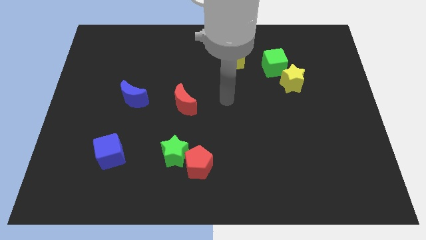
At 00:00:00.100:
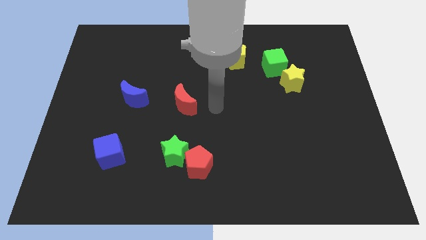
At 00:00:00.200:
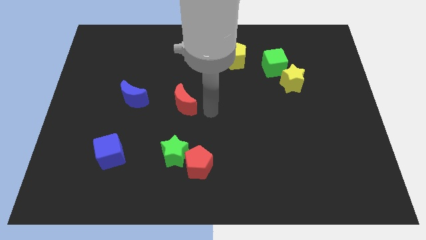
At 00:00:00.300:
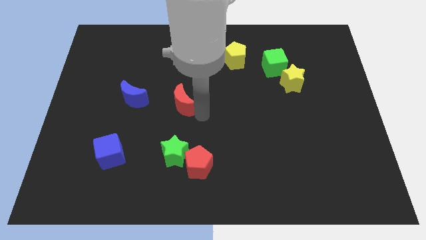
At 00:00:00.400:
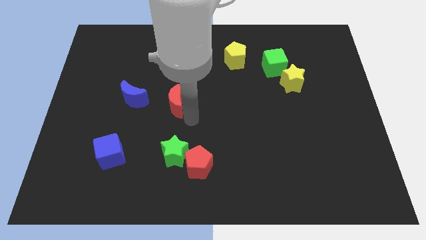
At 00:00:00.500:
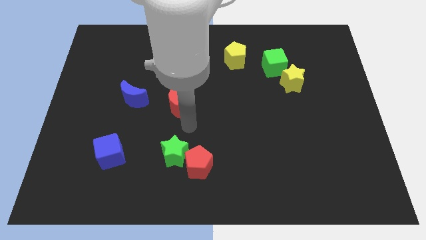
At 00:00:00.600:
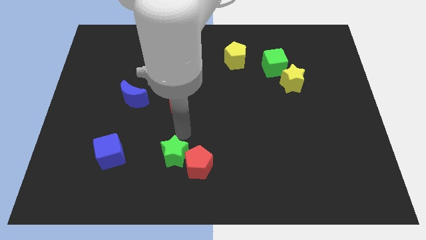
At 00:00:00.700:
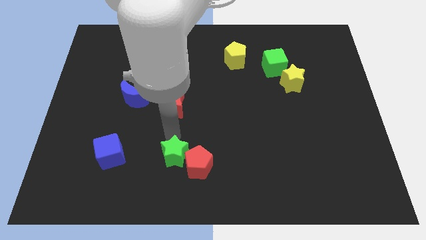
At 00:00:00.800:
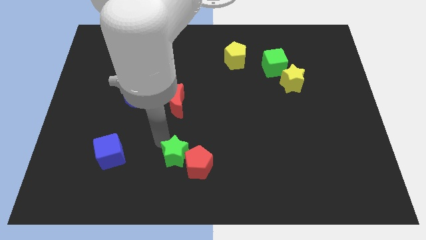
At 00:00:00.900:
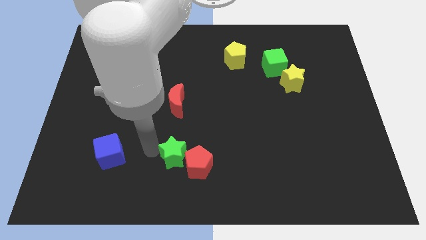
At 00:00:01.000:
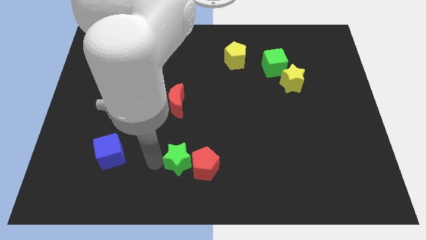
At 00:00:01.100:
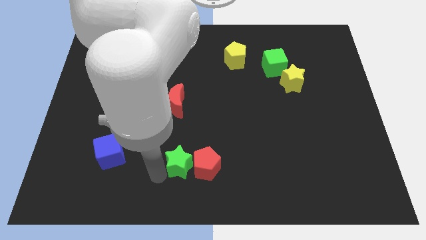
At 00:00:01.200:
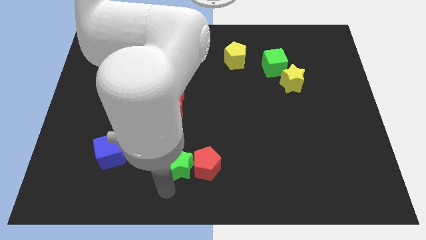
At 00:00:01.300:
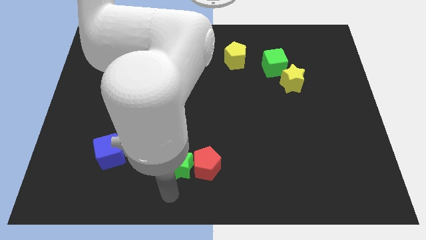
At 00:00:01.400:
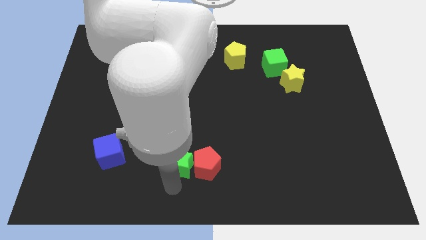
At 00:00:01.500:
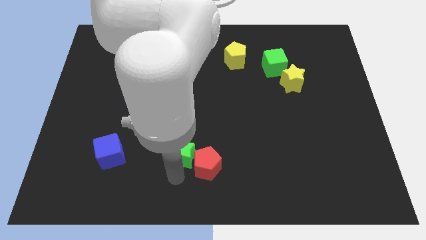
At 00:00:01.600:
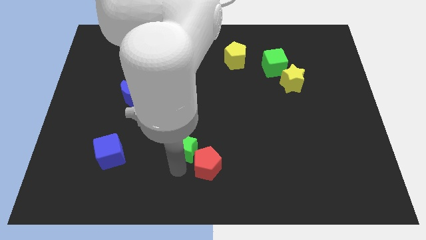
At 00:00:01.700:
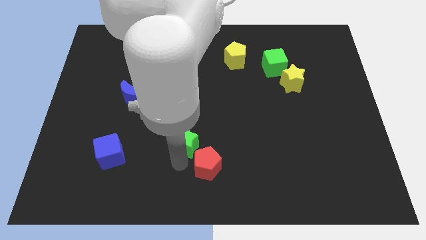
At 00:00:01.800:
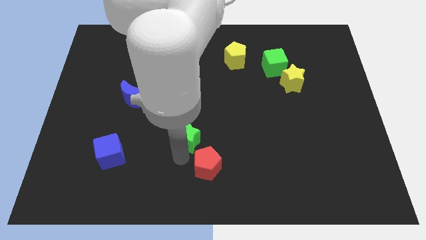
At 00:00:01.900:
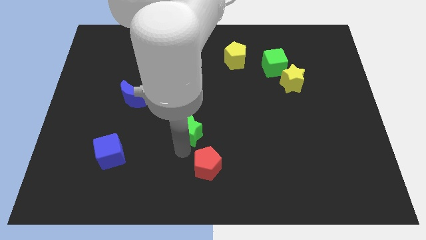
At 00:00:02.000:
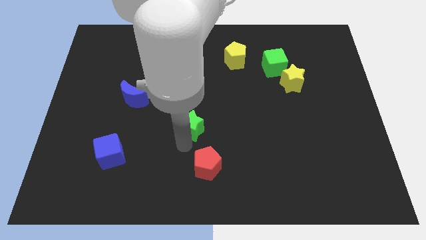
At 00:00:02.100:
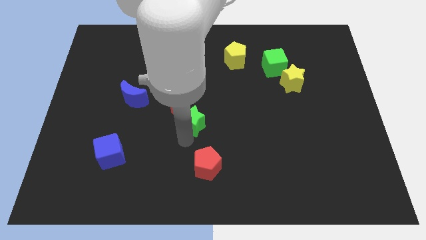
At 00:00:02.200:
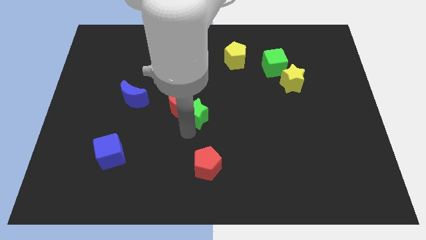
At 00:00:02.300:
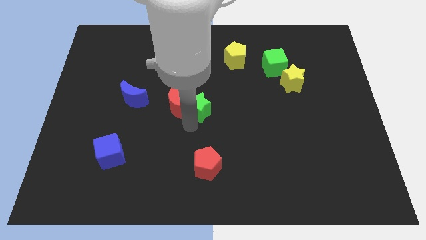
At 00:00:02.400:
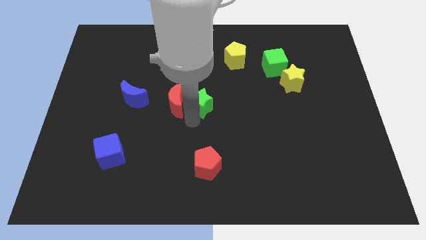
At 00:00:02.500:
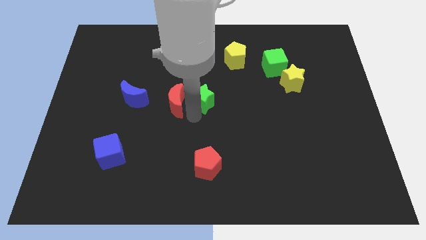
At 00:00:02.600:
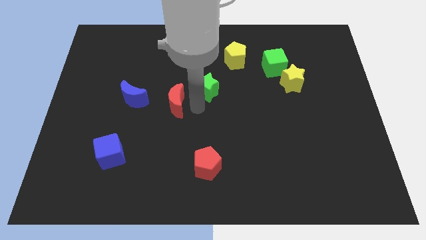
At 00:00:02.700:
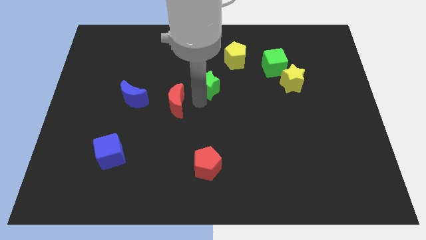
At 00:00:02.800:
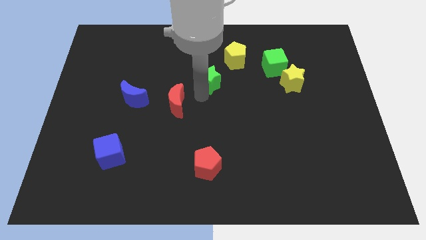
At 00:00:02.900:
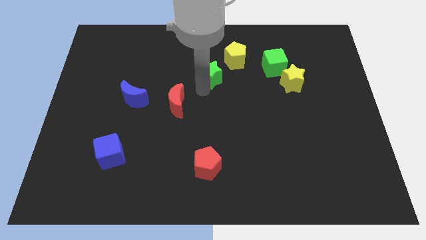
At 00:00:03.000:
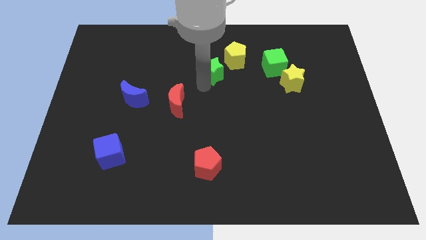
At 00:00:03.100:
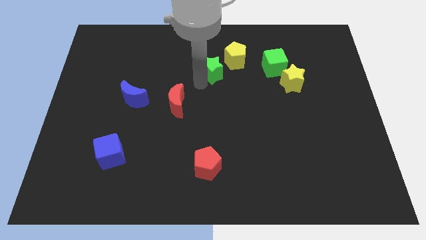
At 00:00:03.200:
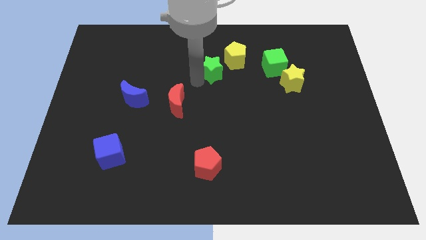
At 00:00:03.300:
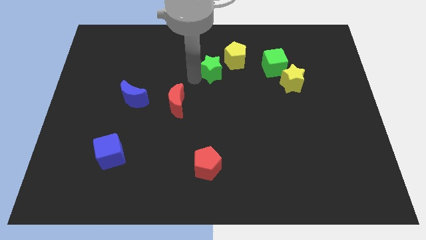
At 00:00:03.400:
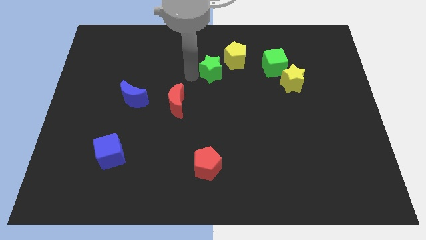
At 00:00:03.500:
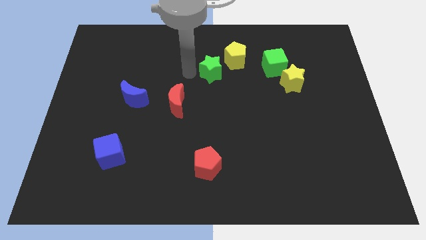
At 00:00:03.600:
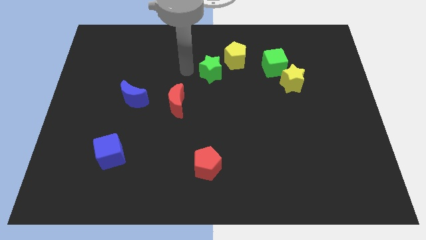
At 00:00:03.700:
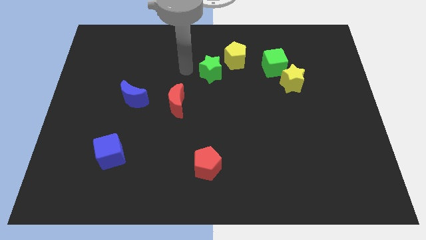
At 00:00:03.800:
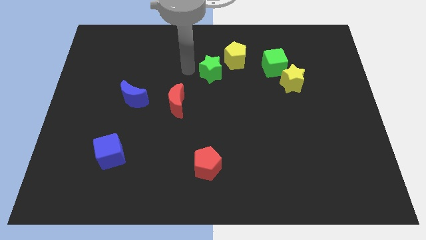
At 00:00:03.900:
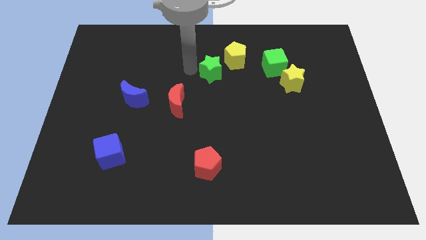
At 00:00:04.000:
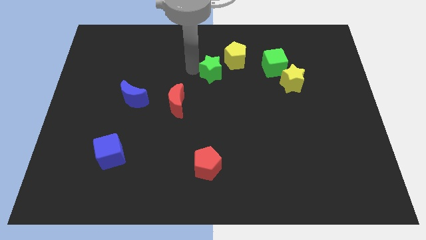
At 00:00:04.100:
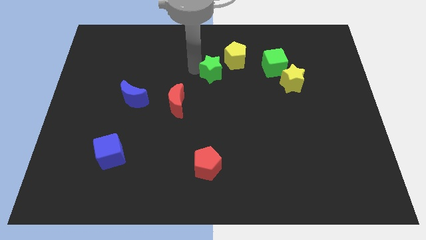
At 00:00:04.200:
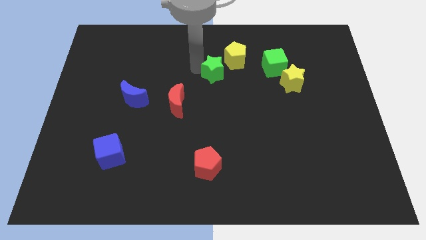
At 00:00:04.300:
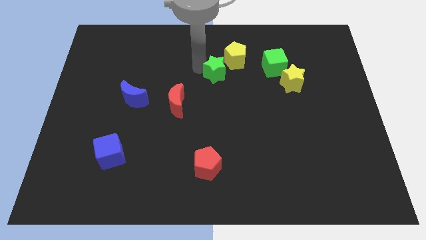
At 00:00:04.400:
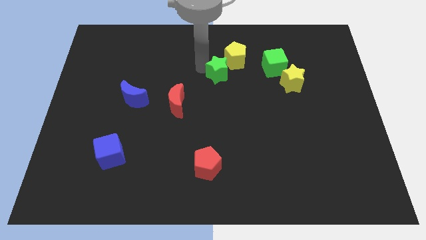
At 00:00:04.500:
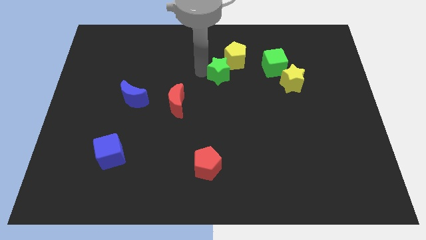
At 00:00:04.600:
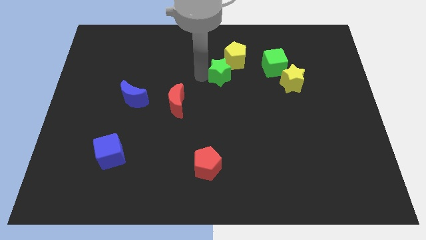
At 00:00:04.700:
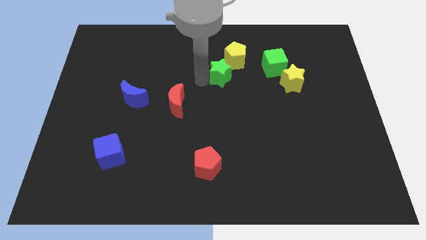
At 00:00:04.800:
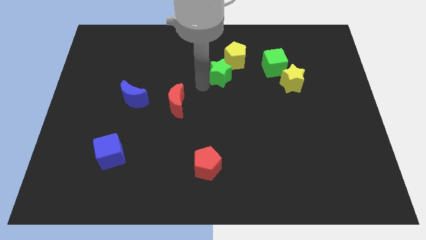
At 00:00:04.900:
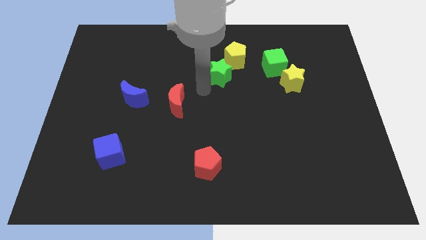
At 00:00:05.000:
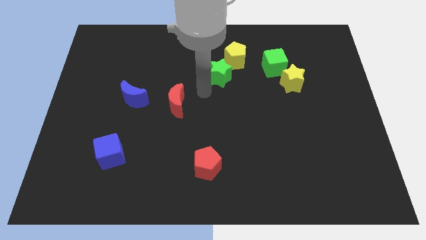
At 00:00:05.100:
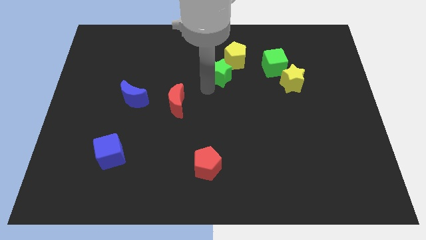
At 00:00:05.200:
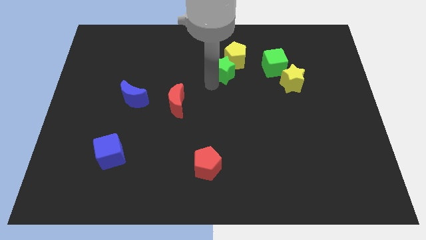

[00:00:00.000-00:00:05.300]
put the green star to the yellow pentagon

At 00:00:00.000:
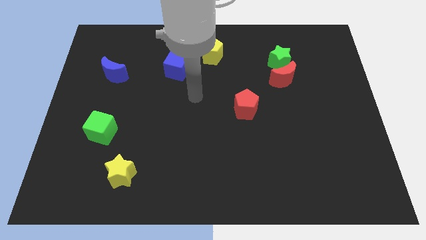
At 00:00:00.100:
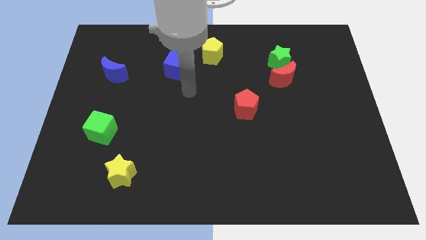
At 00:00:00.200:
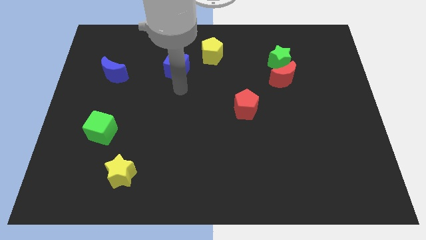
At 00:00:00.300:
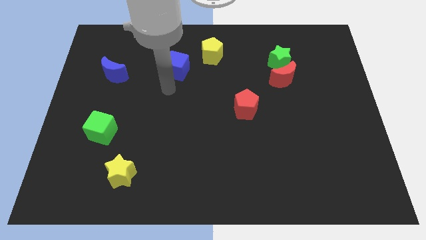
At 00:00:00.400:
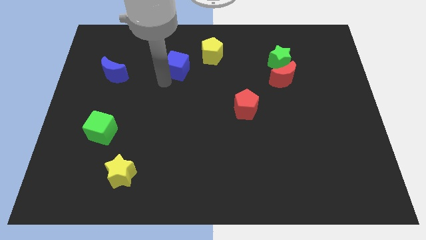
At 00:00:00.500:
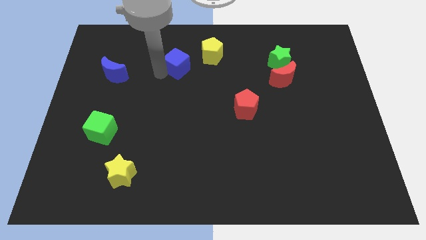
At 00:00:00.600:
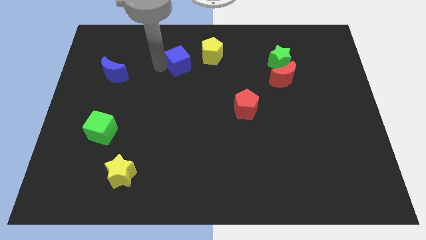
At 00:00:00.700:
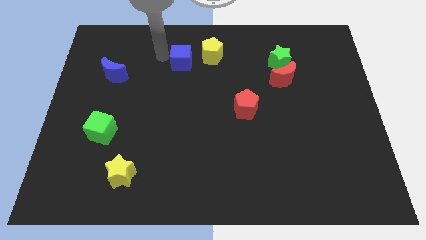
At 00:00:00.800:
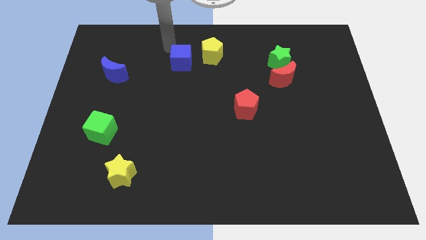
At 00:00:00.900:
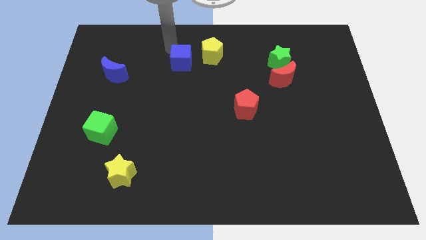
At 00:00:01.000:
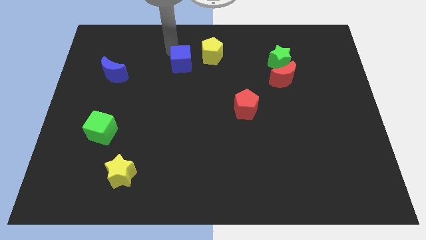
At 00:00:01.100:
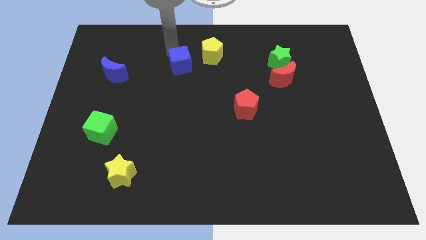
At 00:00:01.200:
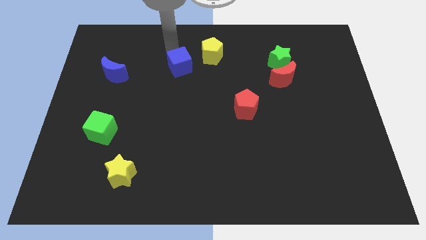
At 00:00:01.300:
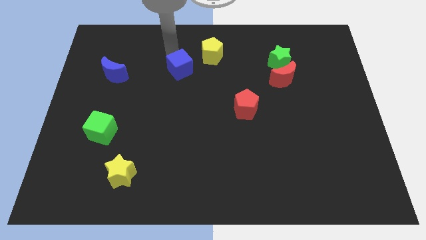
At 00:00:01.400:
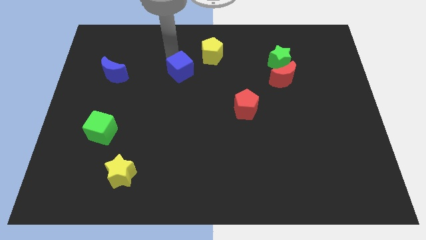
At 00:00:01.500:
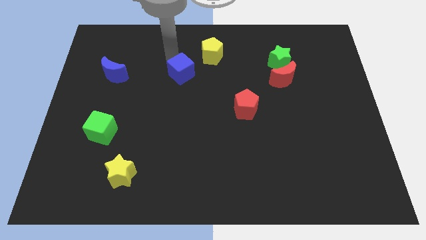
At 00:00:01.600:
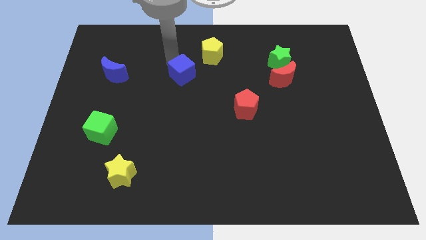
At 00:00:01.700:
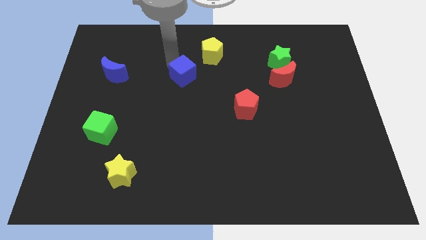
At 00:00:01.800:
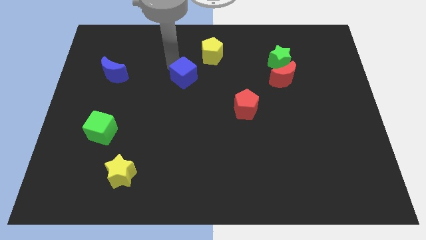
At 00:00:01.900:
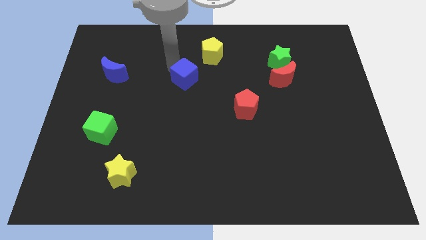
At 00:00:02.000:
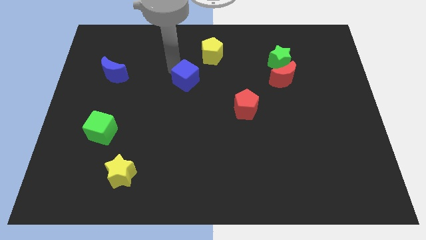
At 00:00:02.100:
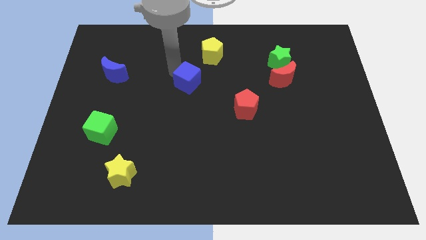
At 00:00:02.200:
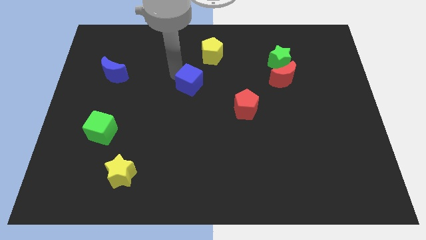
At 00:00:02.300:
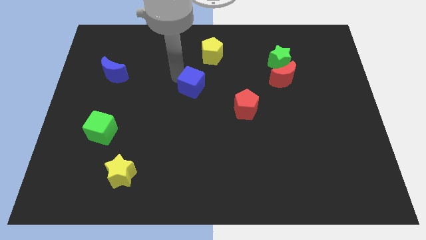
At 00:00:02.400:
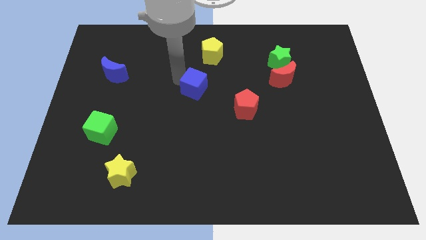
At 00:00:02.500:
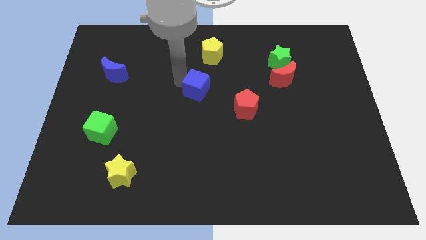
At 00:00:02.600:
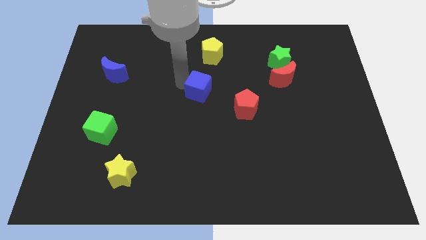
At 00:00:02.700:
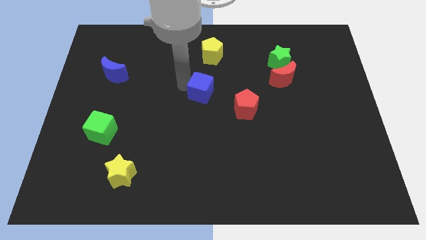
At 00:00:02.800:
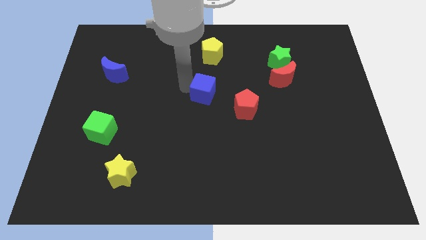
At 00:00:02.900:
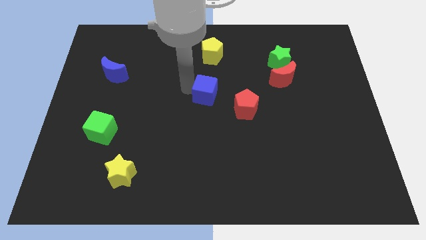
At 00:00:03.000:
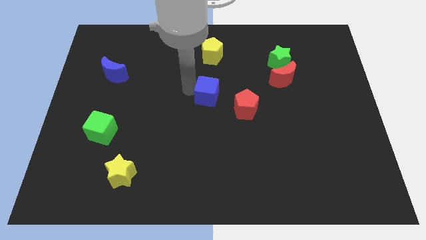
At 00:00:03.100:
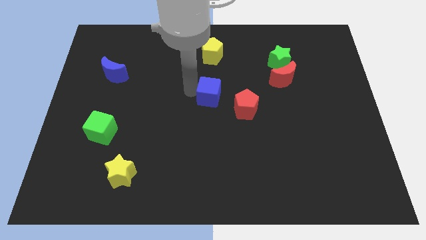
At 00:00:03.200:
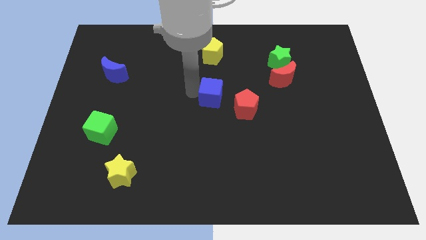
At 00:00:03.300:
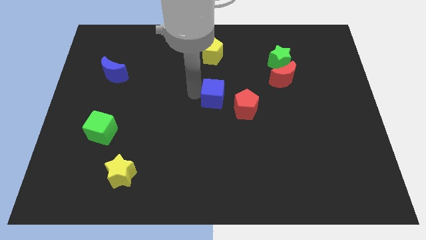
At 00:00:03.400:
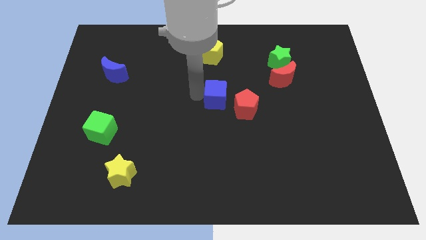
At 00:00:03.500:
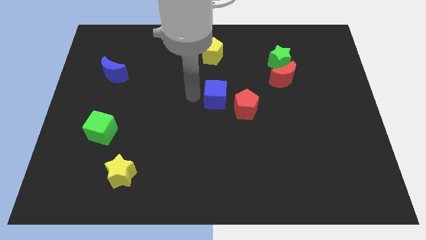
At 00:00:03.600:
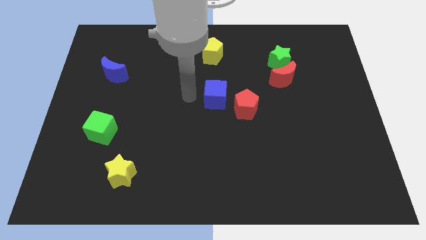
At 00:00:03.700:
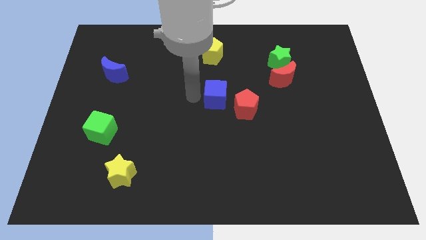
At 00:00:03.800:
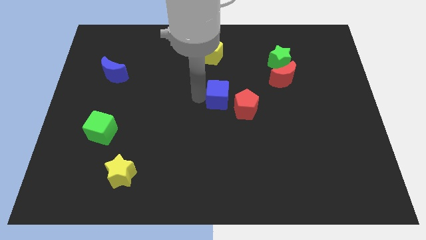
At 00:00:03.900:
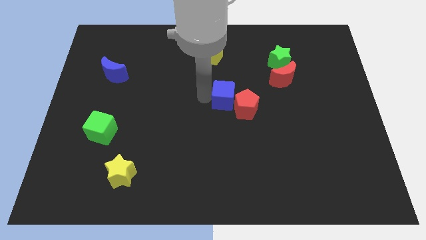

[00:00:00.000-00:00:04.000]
slide the blue cube to the red pentagon
